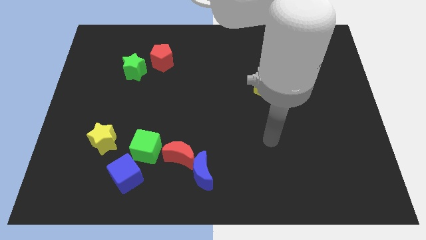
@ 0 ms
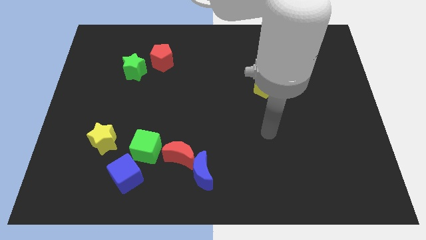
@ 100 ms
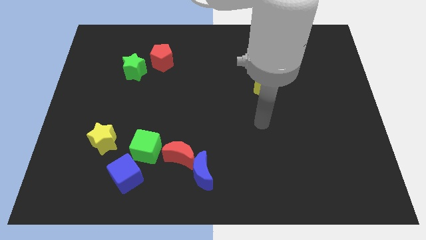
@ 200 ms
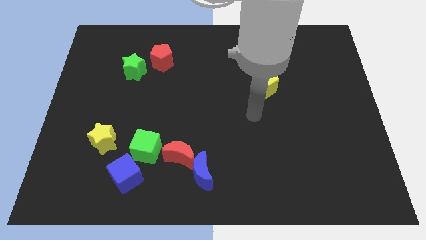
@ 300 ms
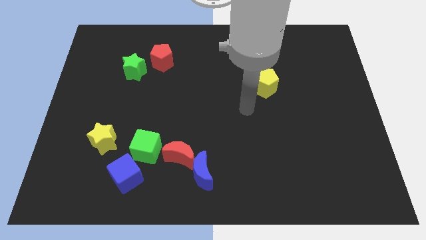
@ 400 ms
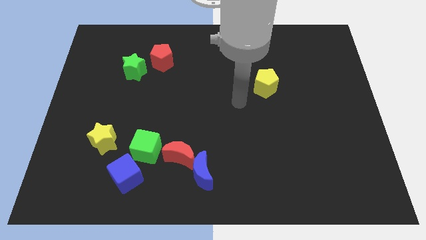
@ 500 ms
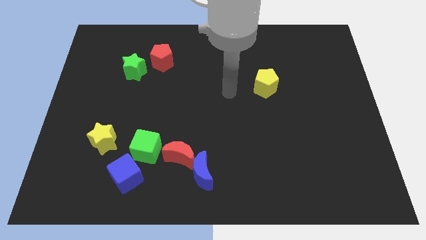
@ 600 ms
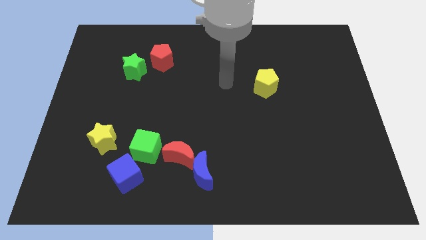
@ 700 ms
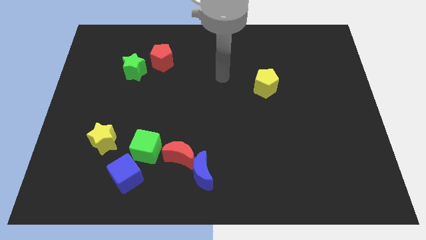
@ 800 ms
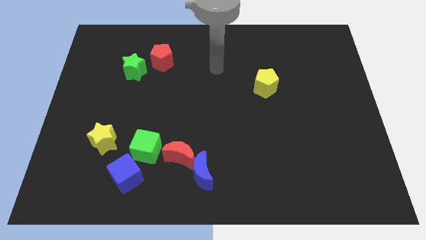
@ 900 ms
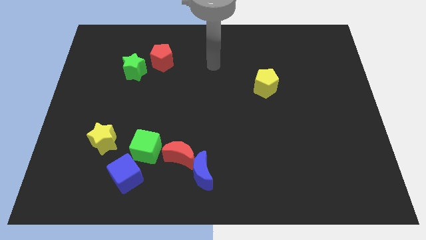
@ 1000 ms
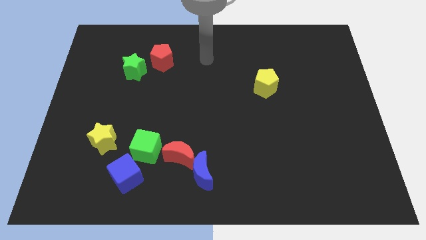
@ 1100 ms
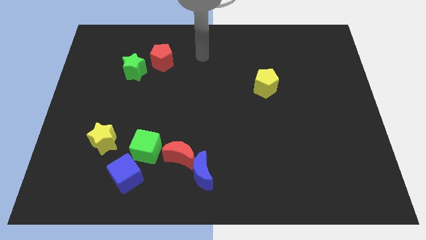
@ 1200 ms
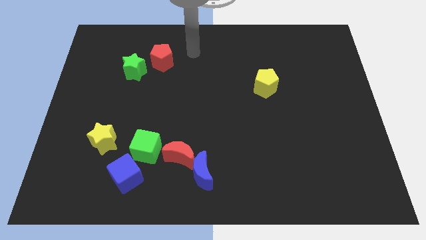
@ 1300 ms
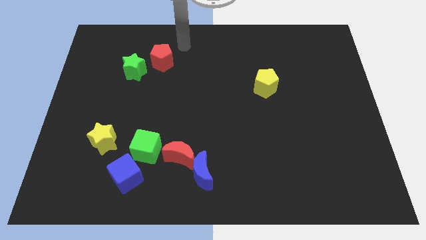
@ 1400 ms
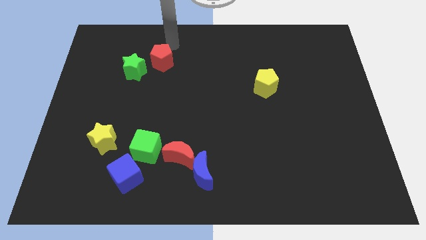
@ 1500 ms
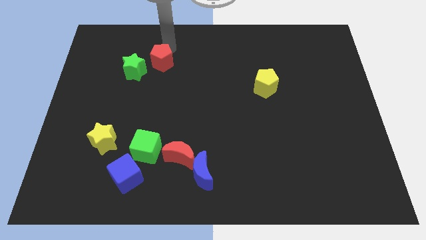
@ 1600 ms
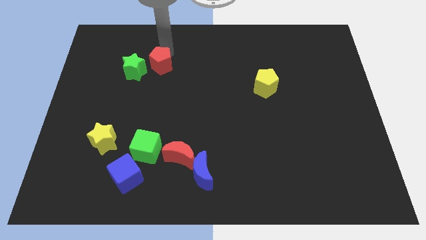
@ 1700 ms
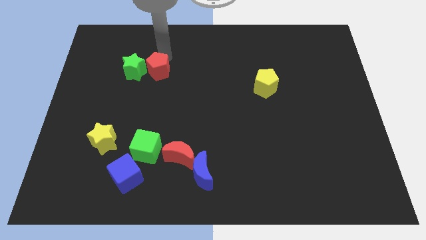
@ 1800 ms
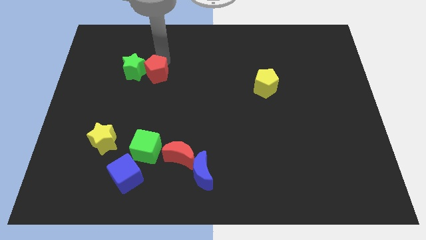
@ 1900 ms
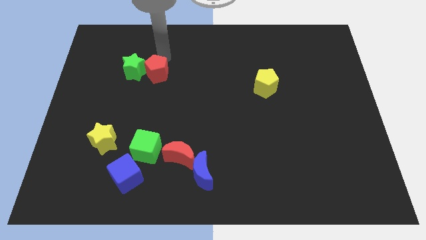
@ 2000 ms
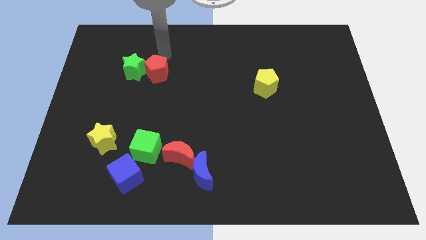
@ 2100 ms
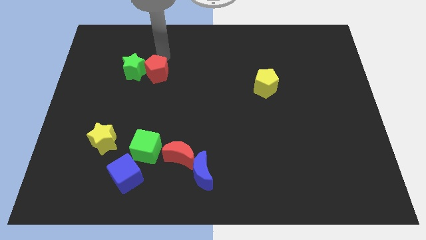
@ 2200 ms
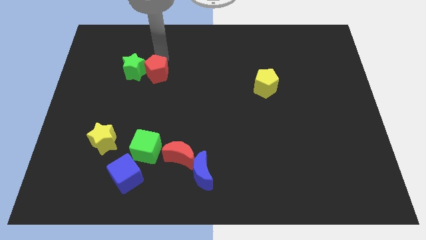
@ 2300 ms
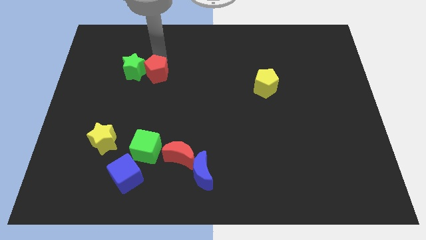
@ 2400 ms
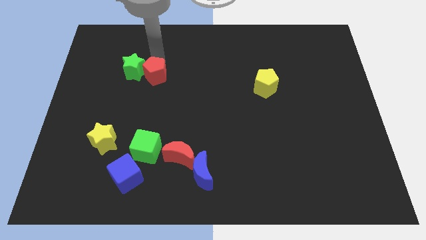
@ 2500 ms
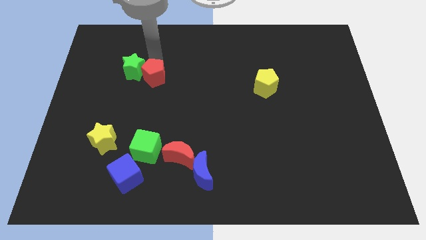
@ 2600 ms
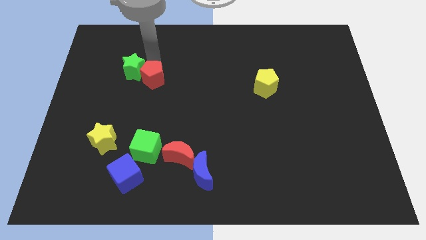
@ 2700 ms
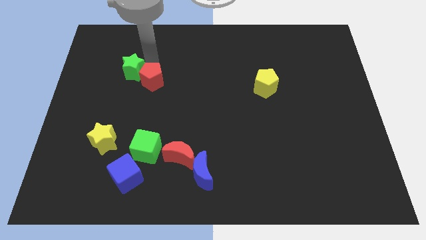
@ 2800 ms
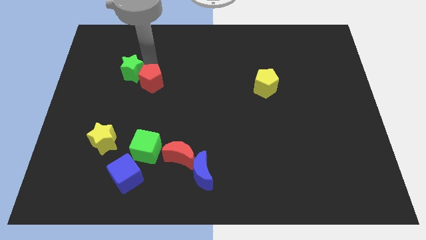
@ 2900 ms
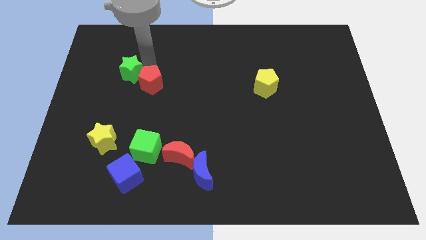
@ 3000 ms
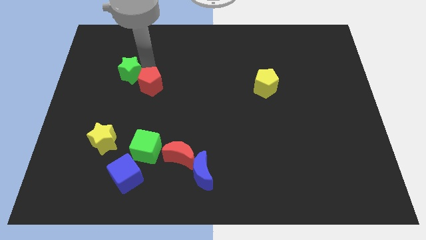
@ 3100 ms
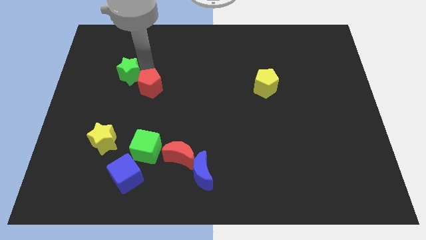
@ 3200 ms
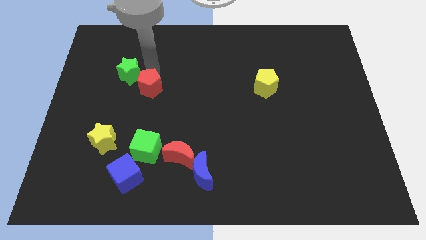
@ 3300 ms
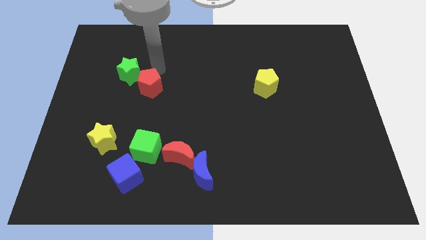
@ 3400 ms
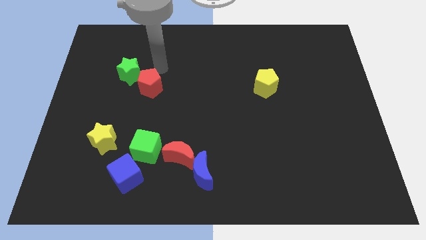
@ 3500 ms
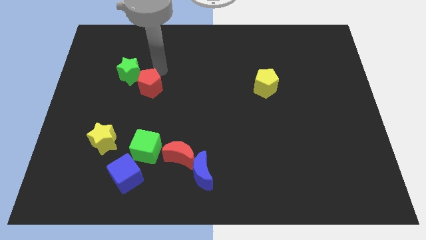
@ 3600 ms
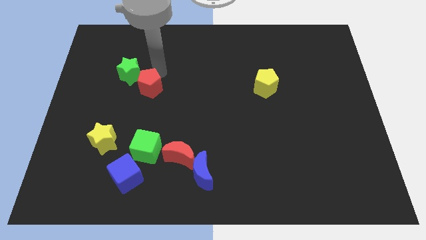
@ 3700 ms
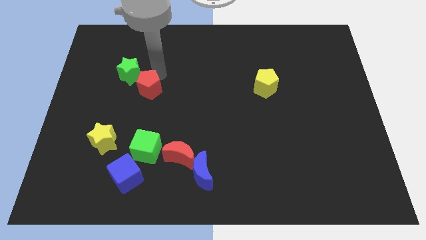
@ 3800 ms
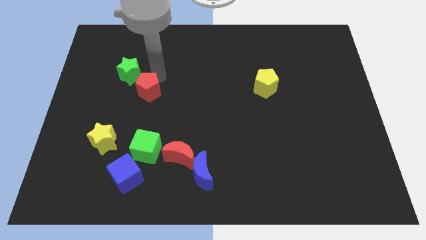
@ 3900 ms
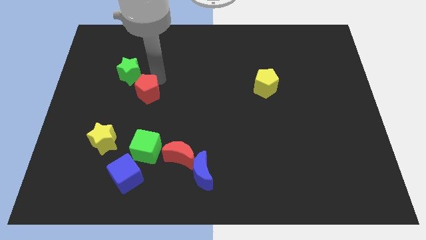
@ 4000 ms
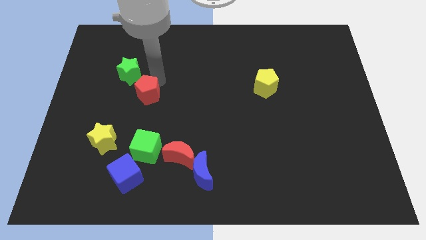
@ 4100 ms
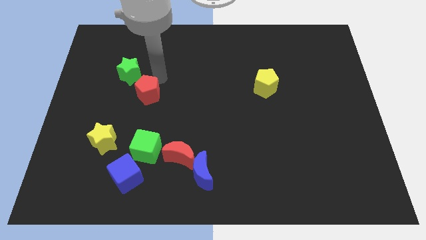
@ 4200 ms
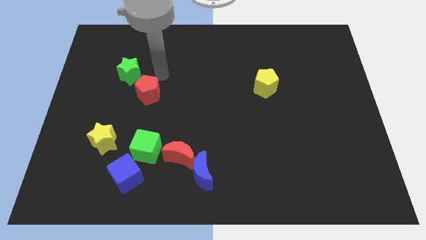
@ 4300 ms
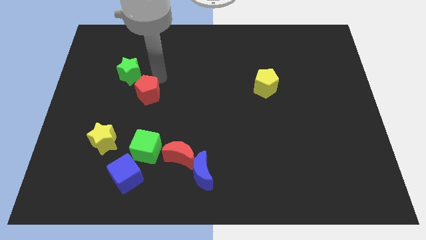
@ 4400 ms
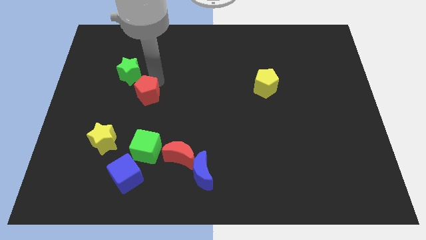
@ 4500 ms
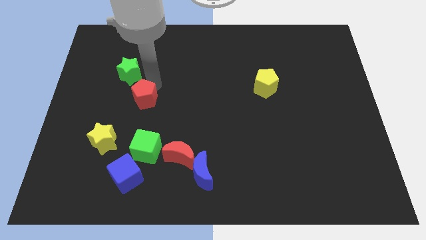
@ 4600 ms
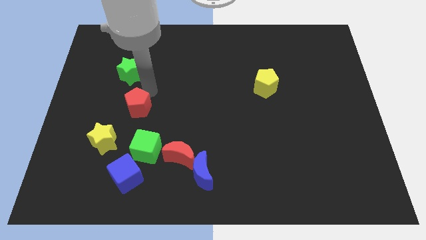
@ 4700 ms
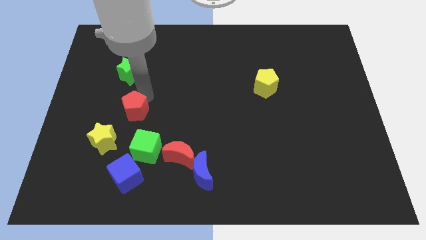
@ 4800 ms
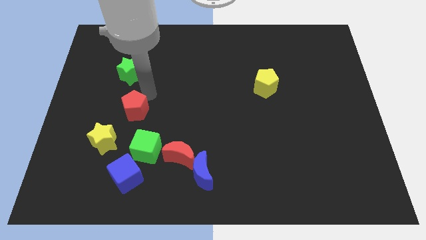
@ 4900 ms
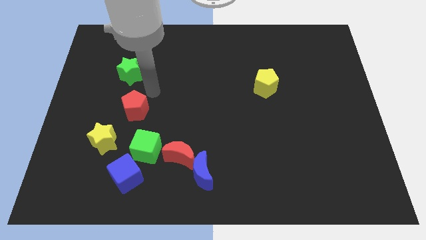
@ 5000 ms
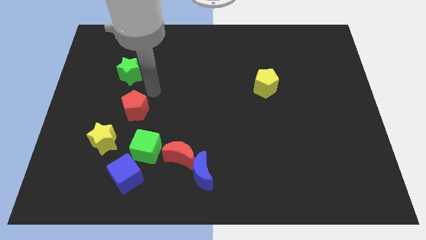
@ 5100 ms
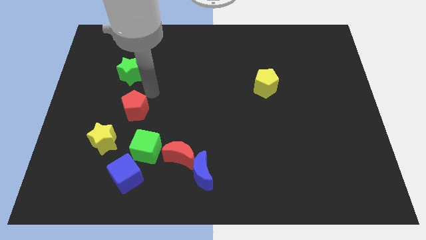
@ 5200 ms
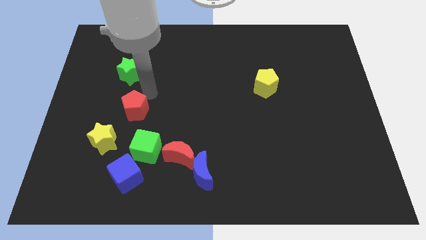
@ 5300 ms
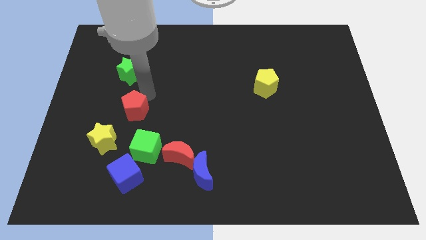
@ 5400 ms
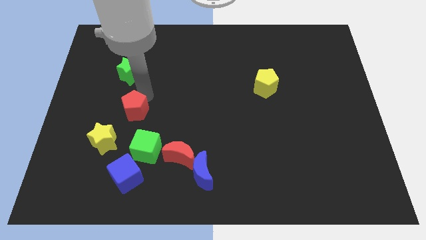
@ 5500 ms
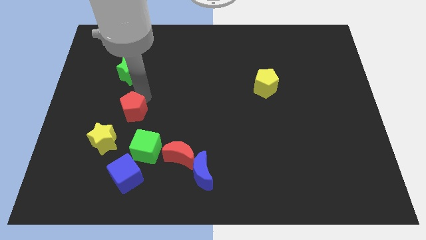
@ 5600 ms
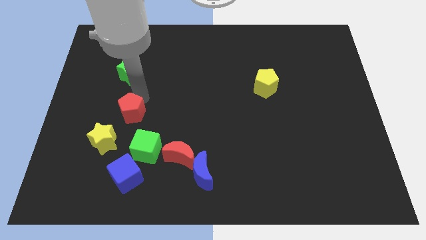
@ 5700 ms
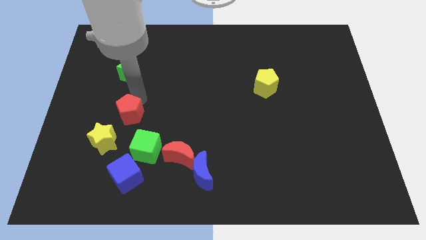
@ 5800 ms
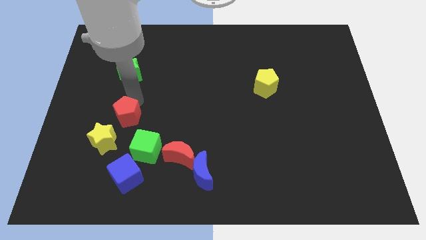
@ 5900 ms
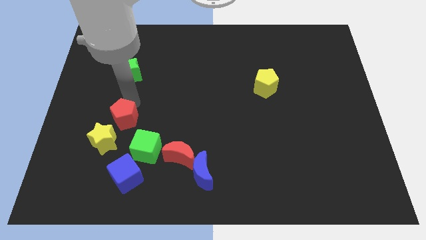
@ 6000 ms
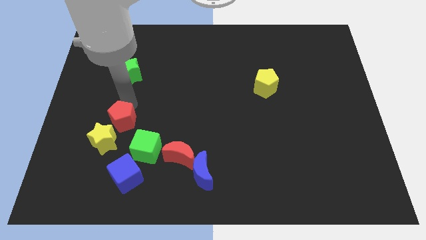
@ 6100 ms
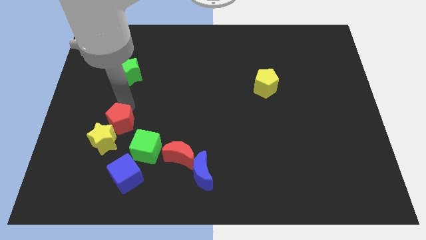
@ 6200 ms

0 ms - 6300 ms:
put the red pentagon towards the yellow star

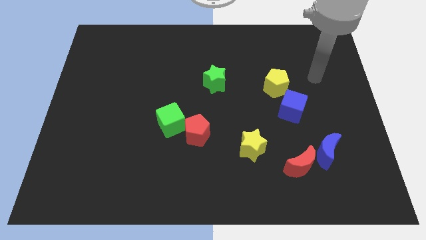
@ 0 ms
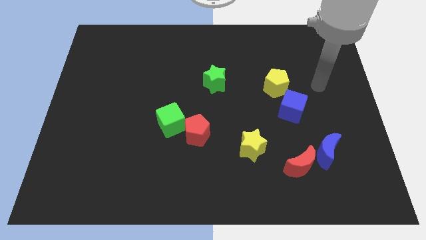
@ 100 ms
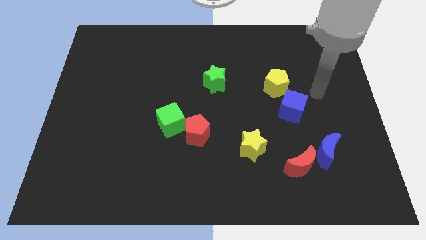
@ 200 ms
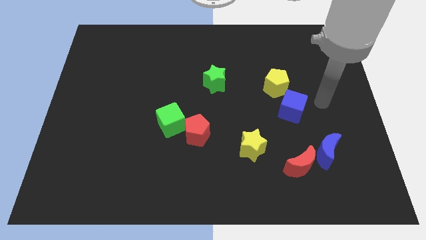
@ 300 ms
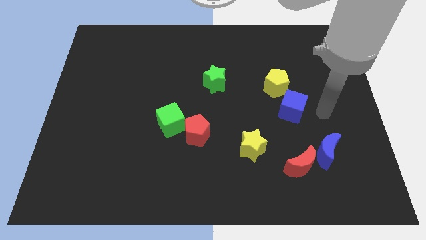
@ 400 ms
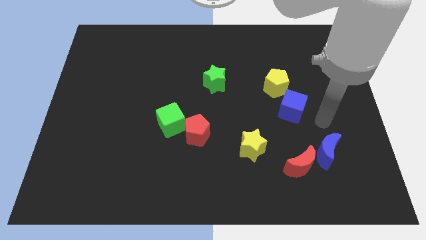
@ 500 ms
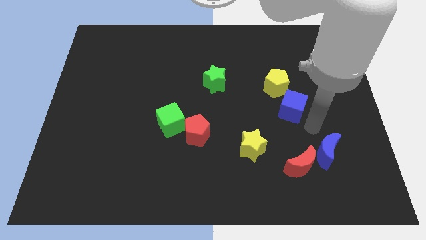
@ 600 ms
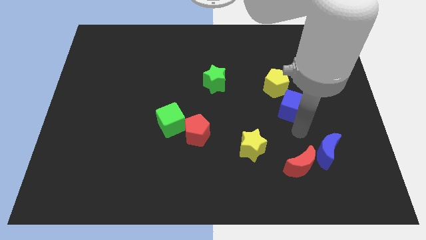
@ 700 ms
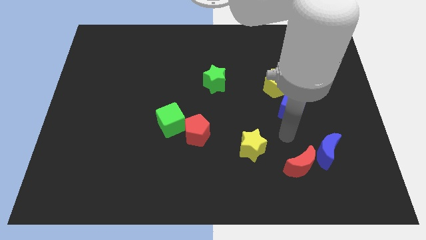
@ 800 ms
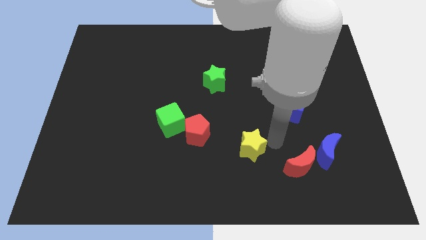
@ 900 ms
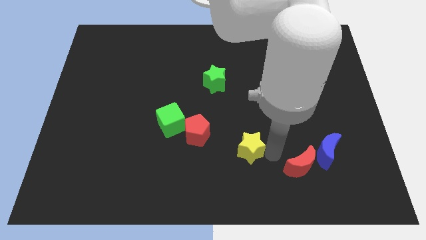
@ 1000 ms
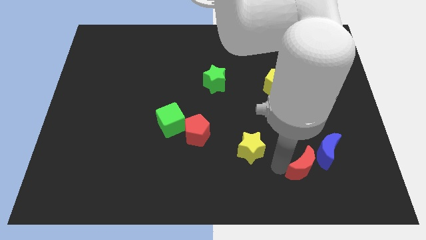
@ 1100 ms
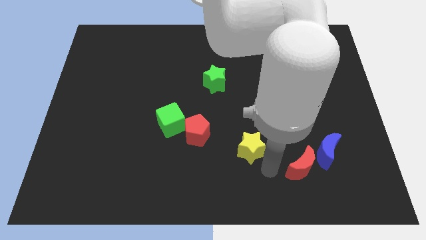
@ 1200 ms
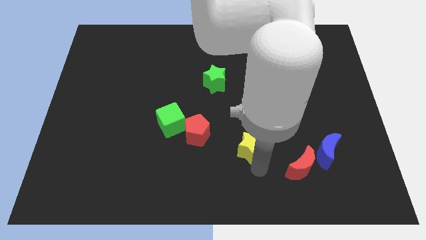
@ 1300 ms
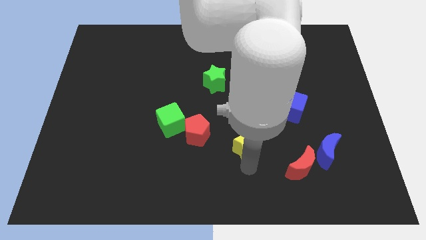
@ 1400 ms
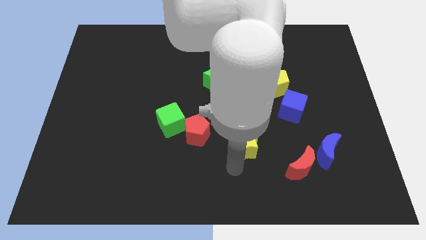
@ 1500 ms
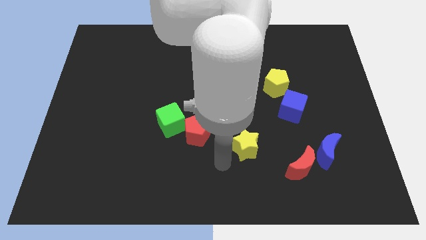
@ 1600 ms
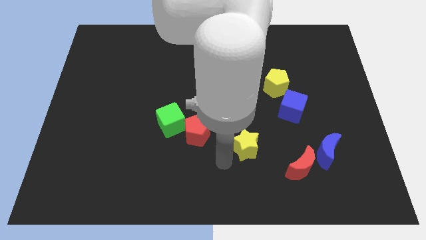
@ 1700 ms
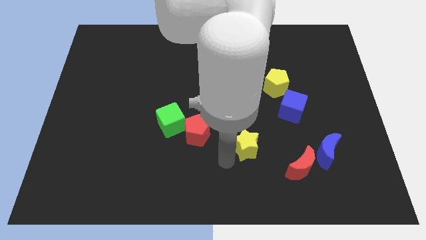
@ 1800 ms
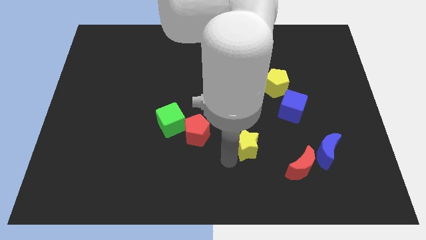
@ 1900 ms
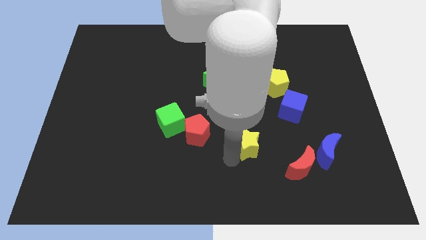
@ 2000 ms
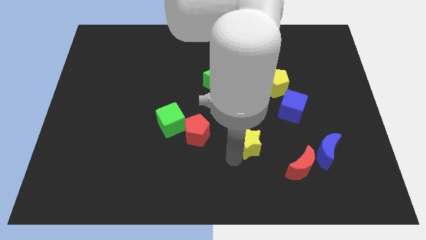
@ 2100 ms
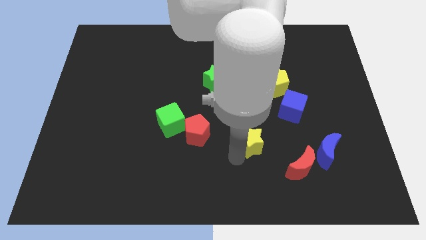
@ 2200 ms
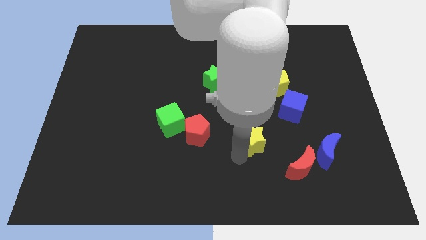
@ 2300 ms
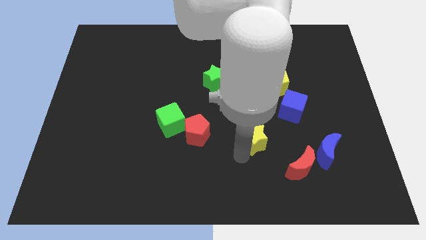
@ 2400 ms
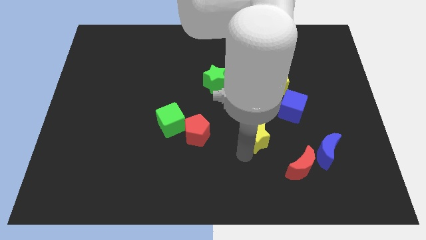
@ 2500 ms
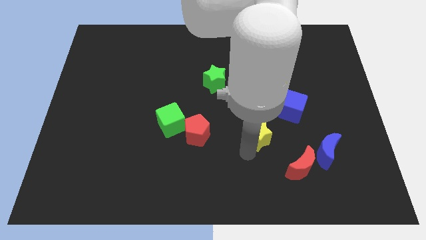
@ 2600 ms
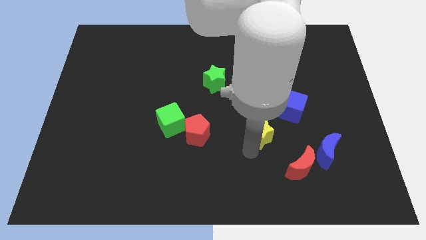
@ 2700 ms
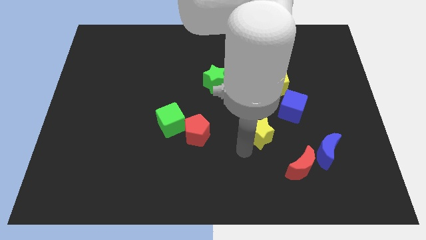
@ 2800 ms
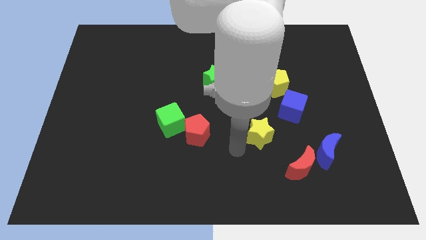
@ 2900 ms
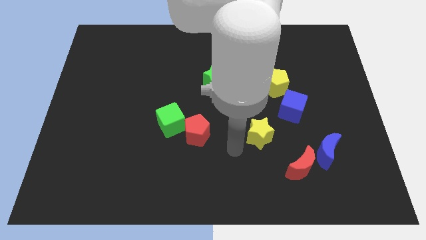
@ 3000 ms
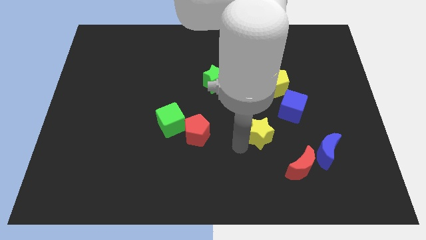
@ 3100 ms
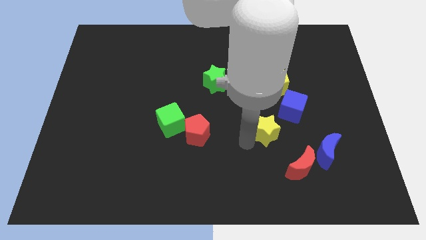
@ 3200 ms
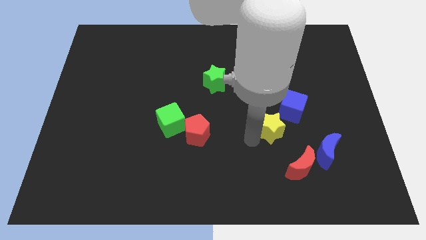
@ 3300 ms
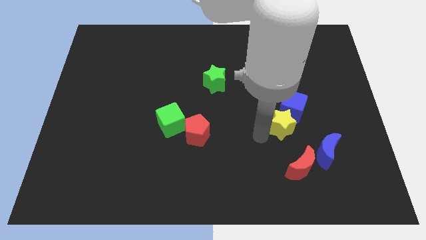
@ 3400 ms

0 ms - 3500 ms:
move the yellow star next to the blue cube
